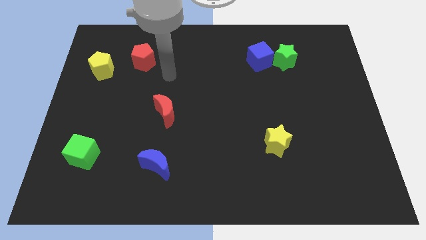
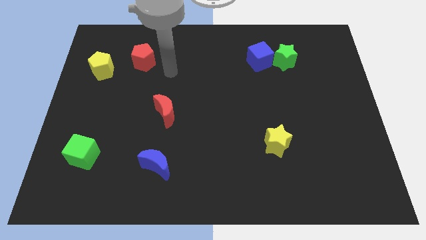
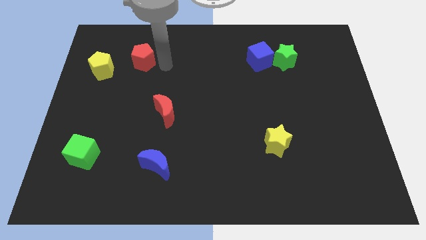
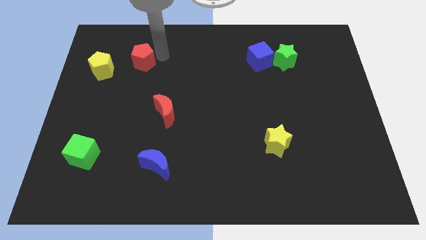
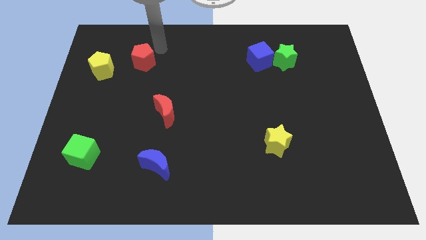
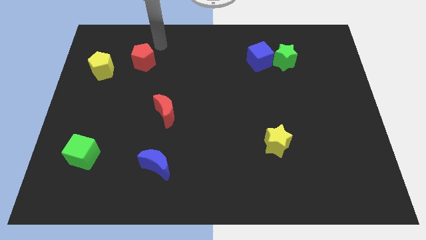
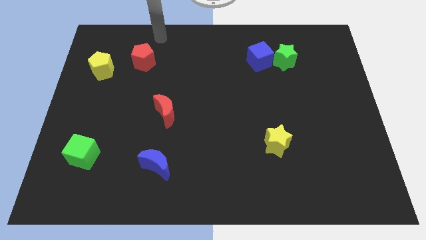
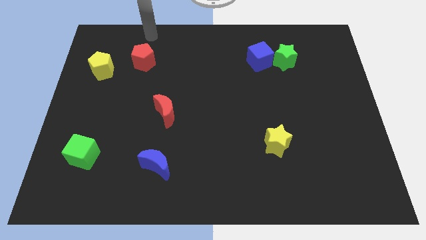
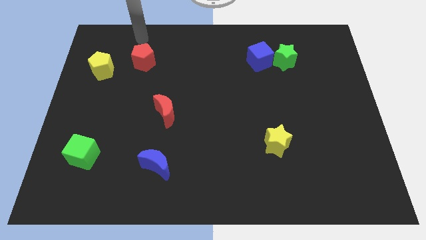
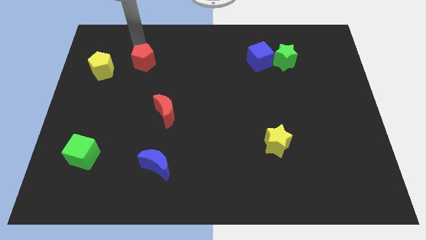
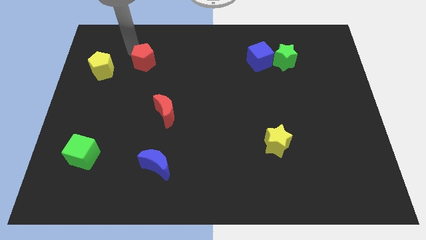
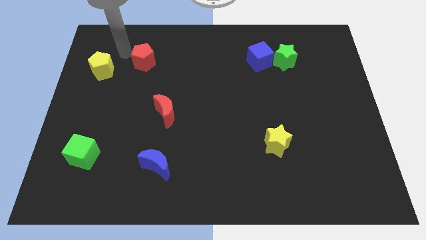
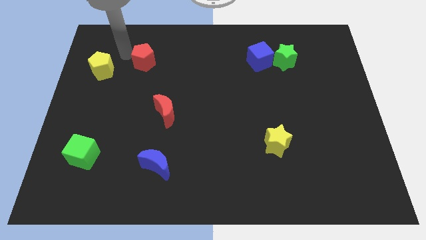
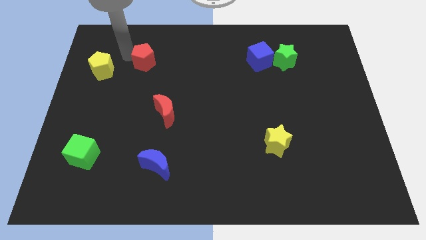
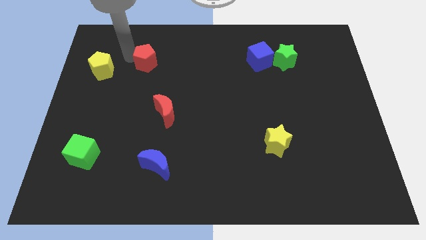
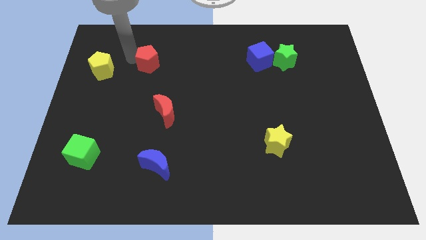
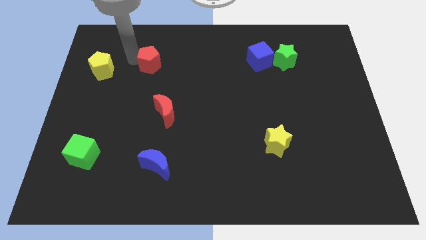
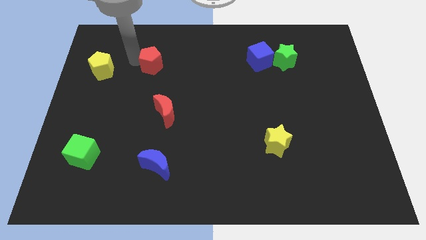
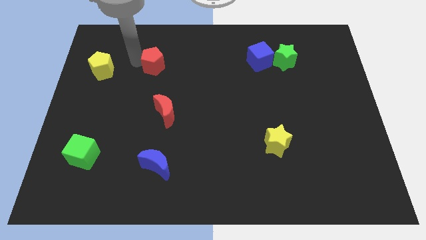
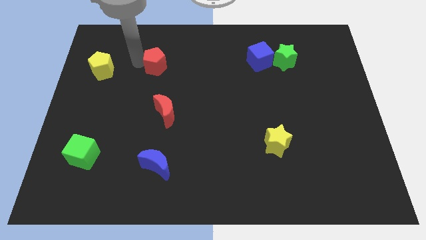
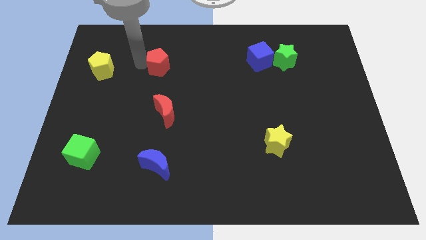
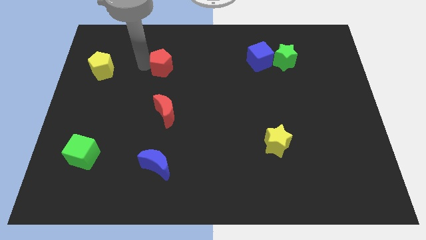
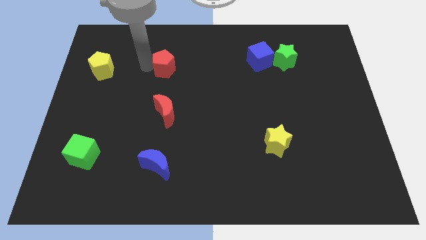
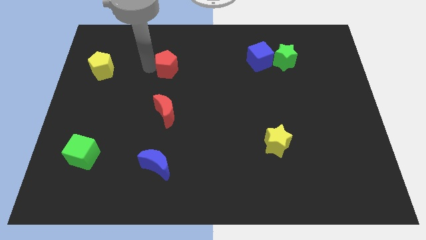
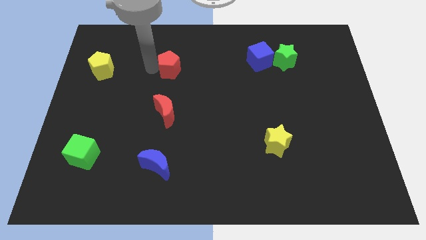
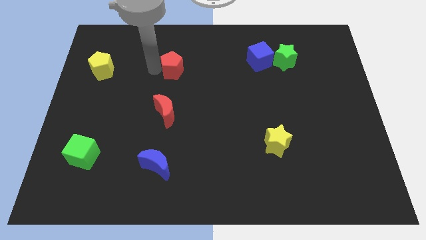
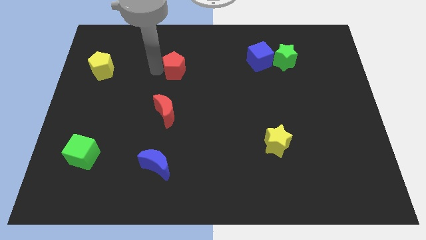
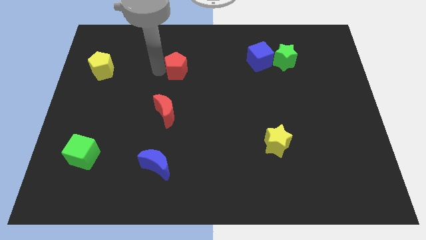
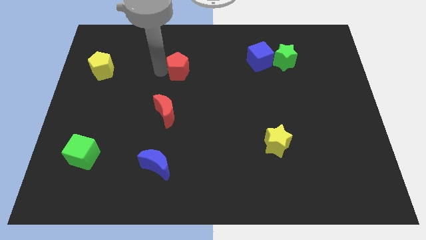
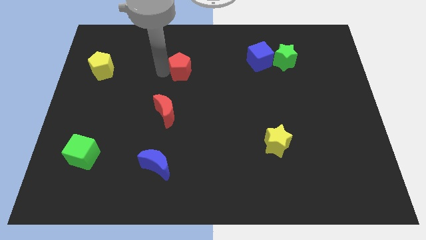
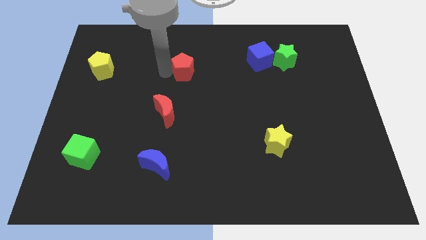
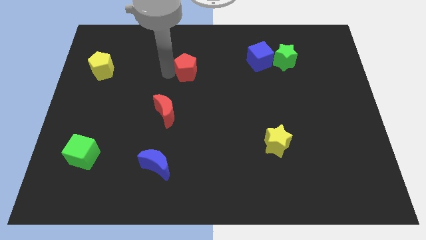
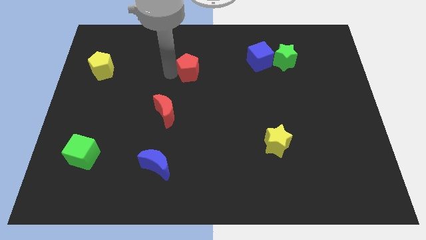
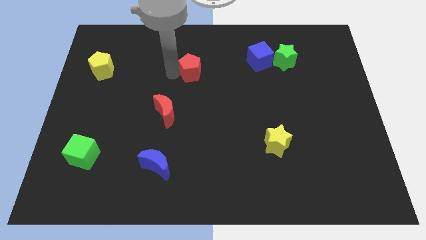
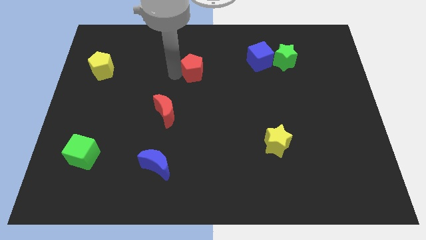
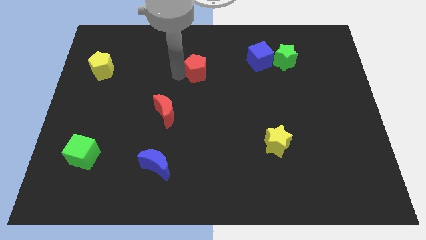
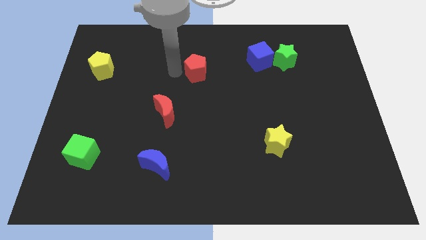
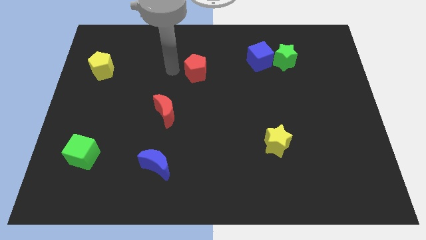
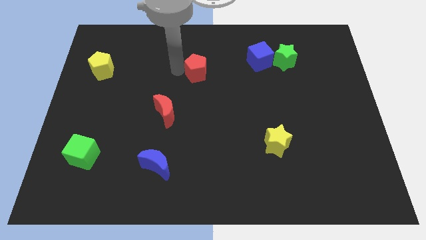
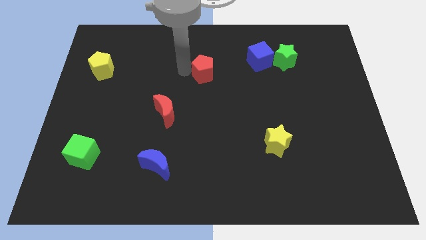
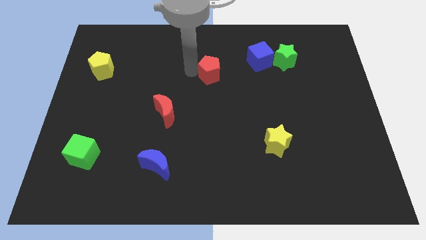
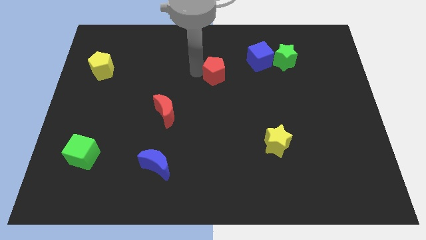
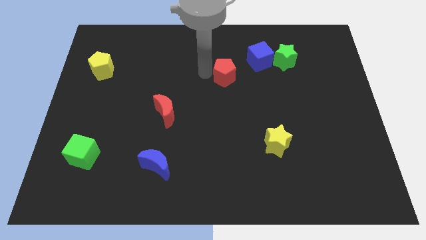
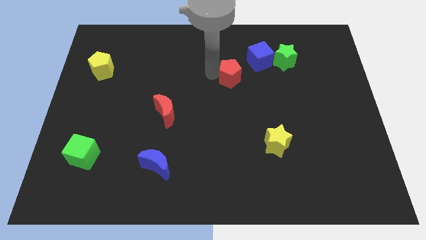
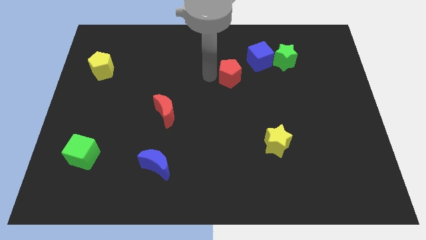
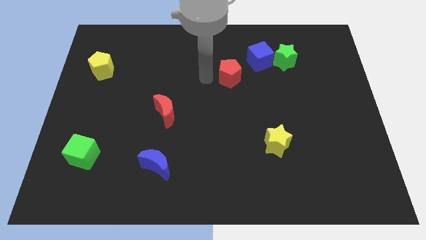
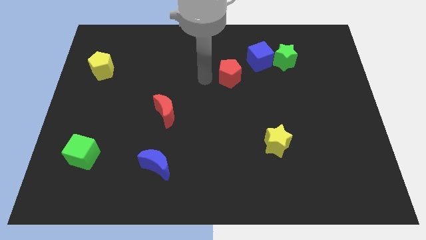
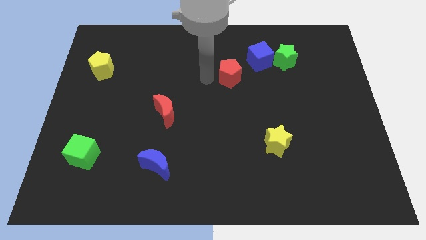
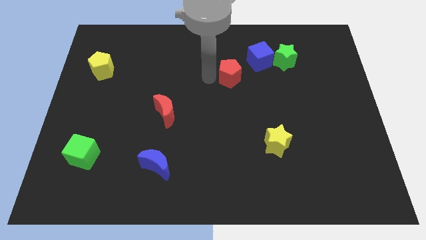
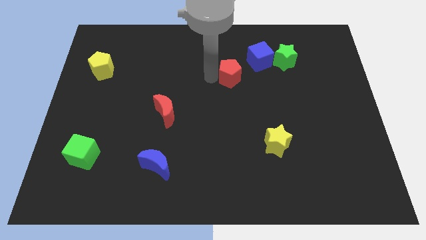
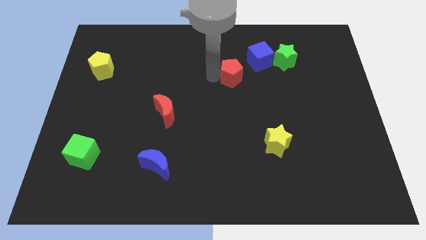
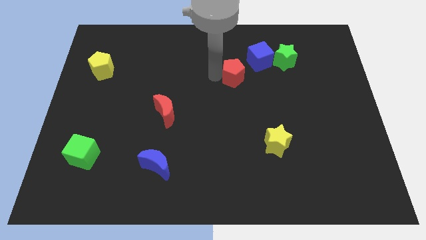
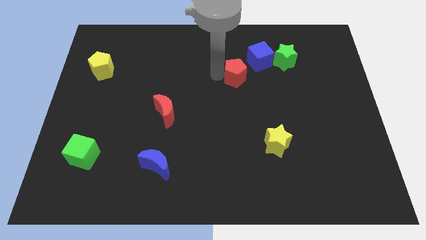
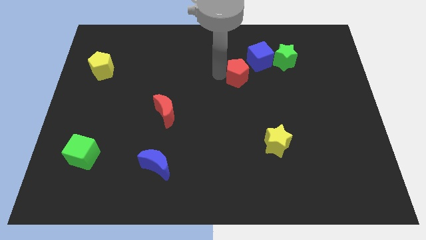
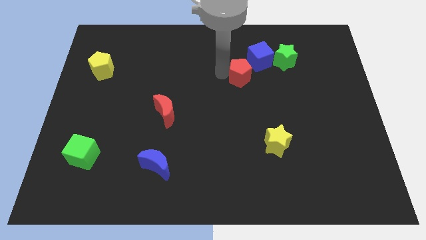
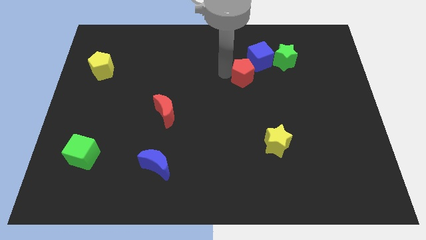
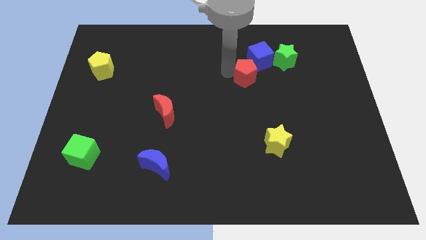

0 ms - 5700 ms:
put the red pentagon to the bottom left side of the green star

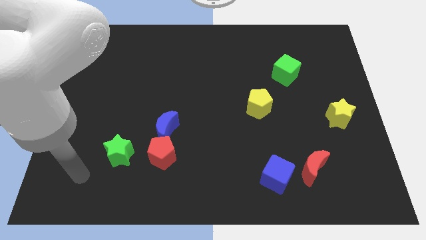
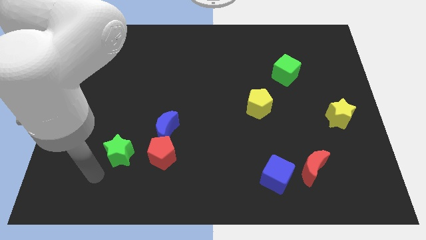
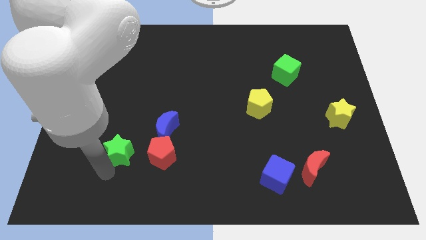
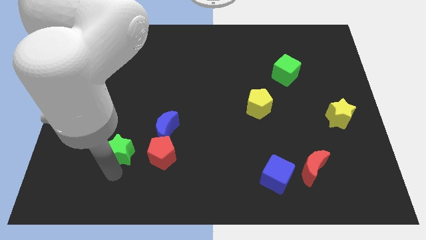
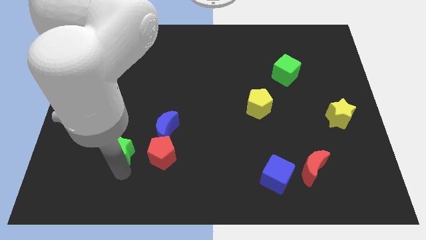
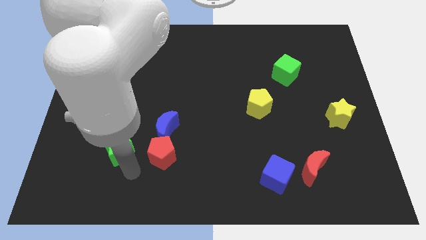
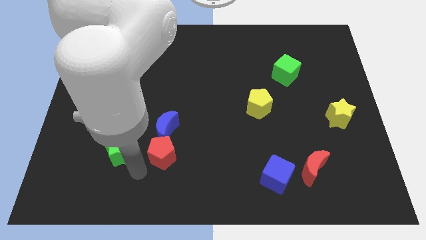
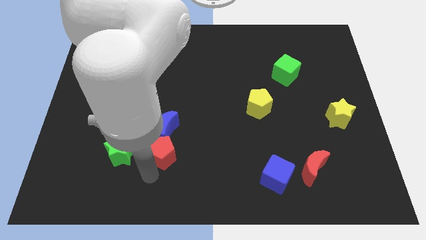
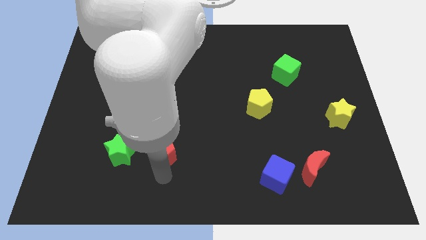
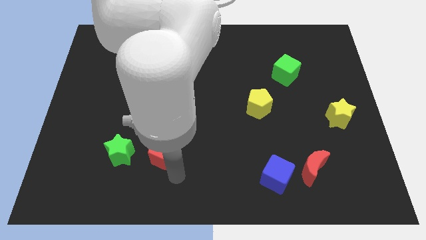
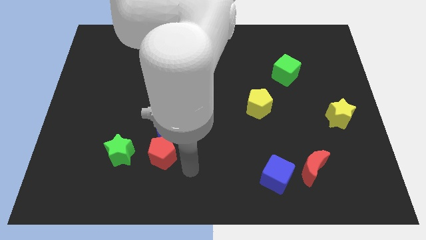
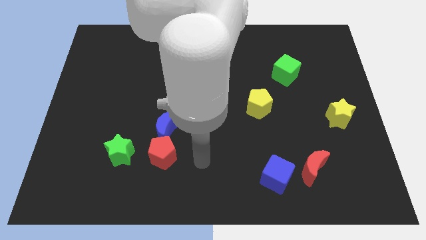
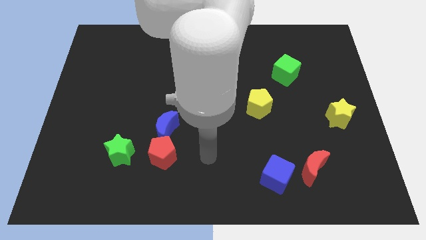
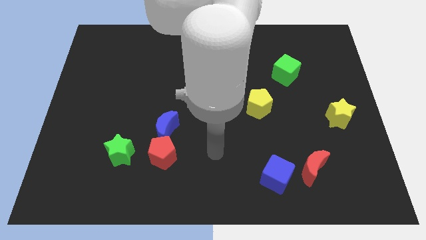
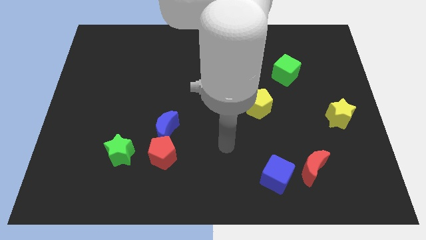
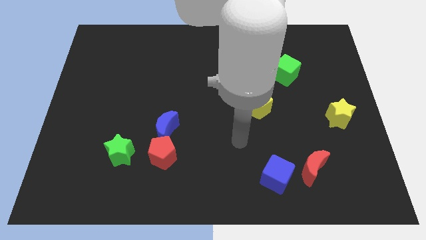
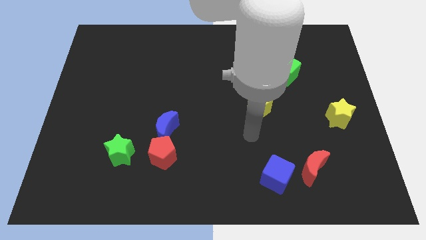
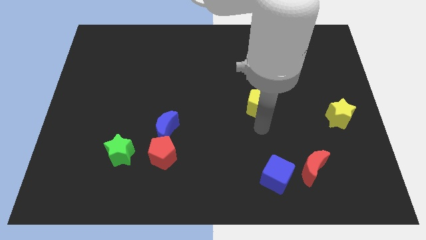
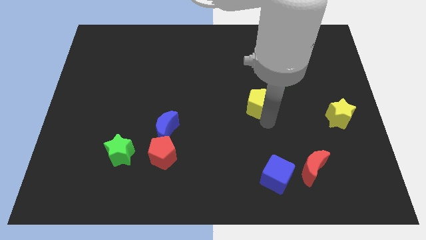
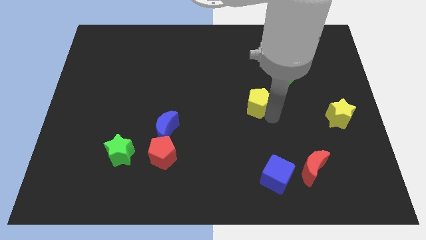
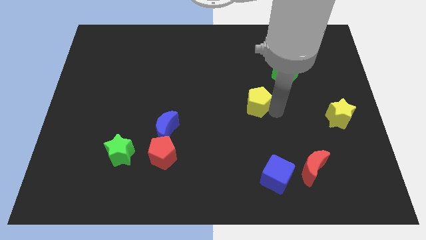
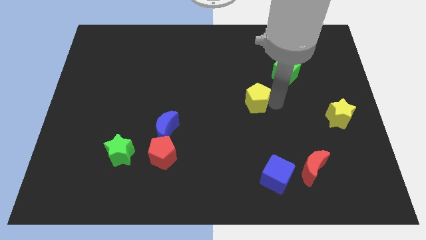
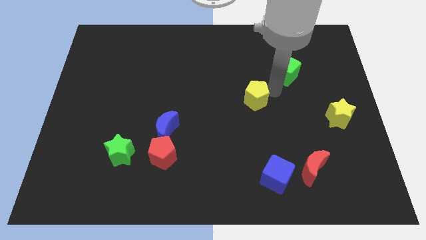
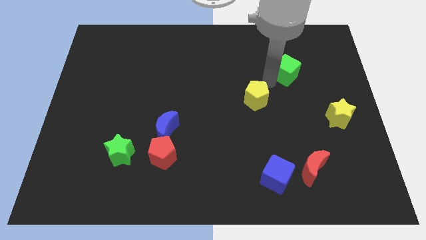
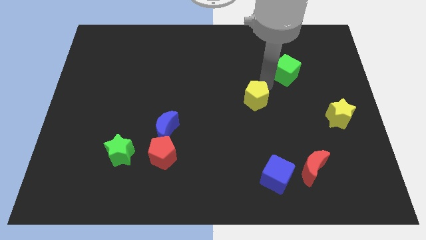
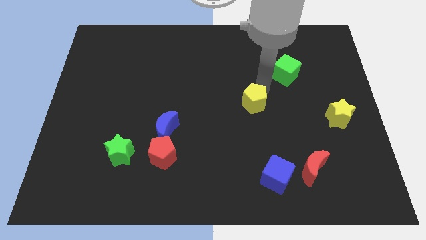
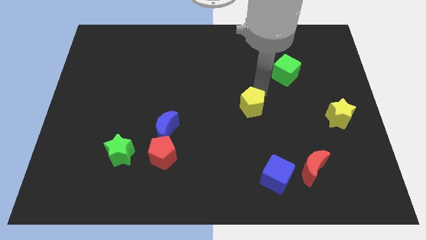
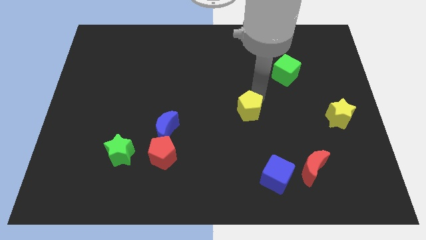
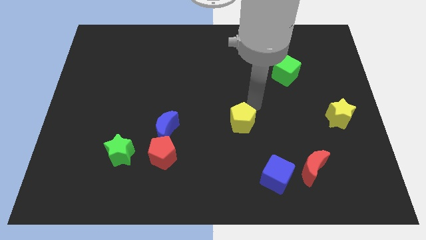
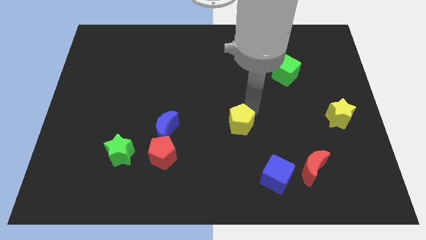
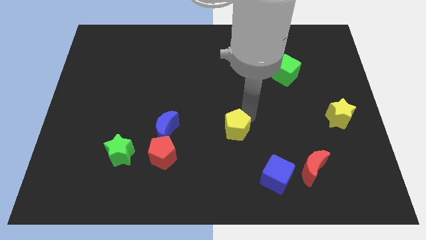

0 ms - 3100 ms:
slide the yellow pentagon to the right side of the blue moon
